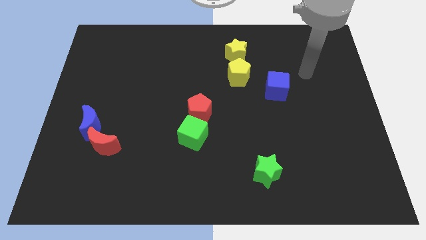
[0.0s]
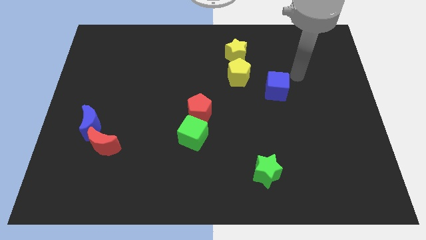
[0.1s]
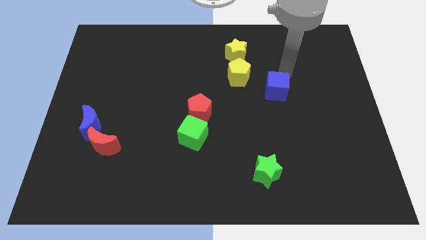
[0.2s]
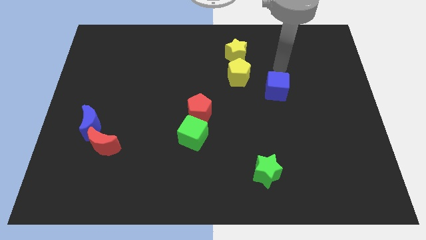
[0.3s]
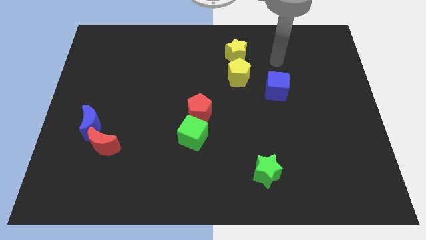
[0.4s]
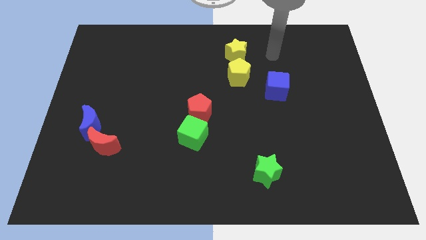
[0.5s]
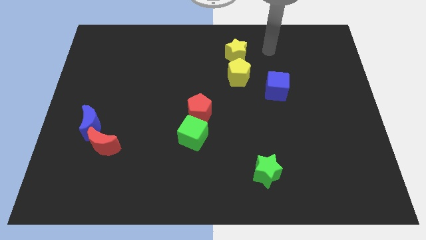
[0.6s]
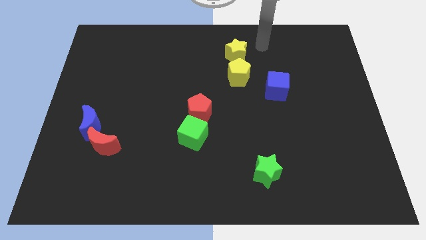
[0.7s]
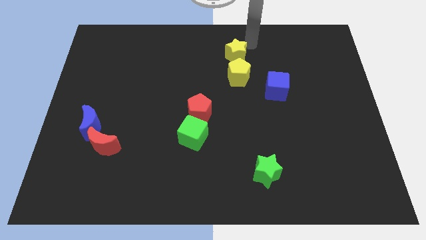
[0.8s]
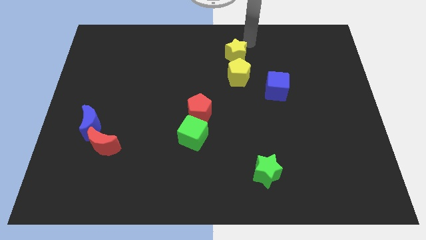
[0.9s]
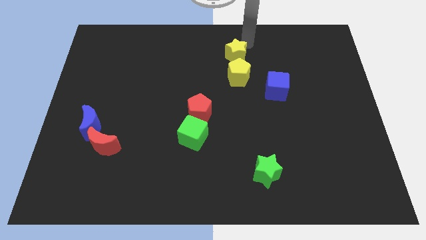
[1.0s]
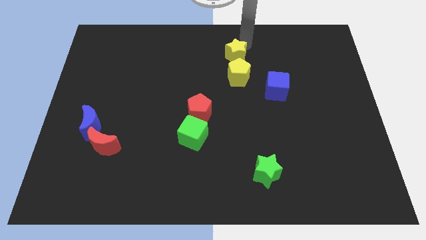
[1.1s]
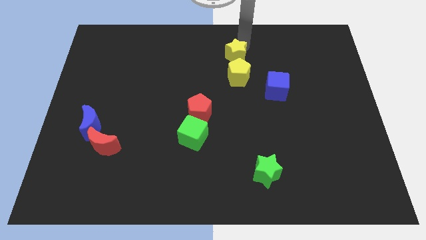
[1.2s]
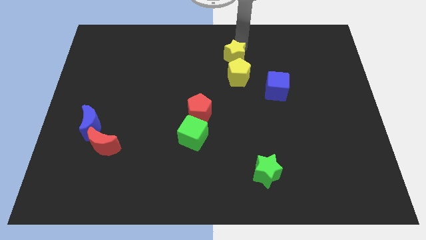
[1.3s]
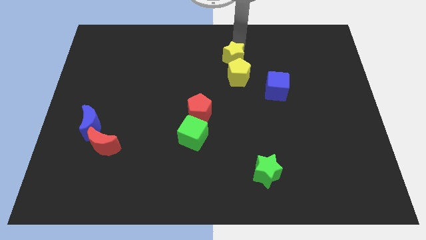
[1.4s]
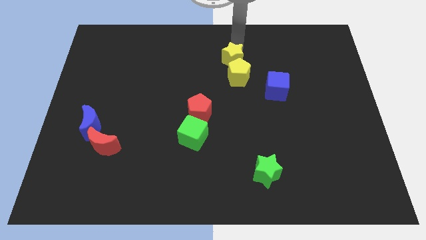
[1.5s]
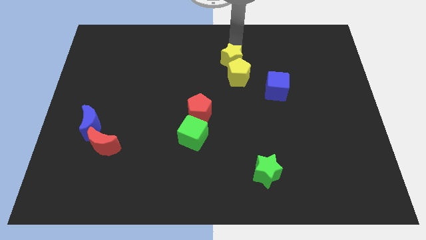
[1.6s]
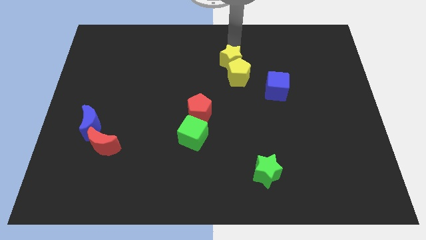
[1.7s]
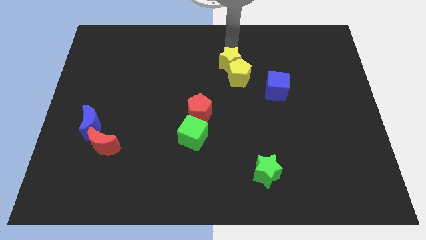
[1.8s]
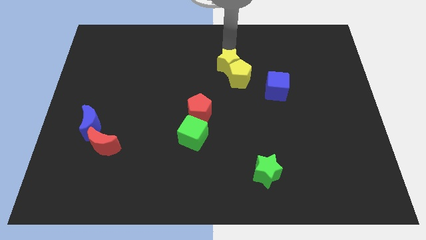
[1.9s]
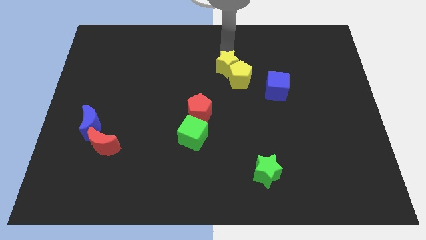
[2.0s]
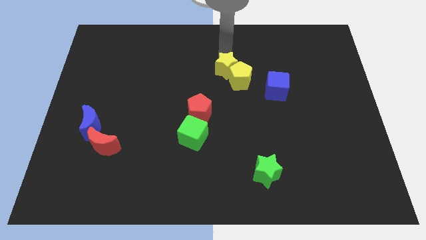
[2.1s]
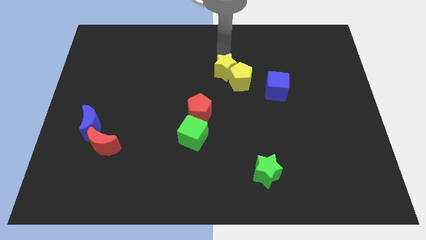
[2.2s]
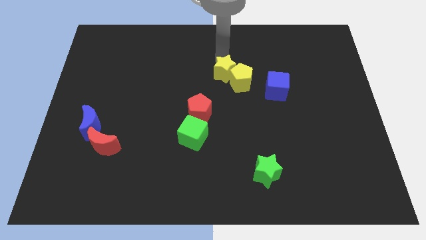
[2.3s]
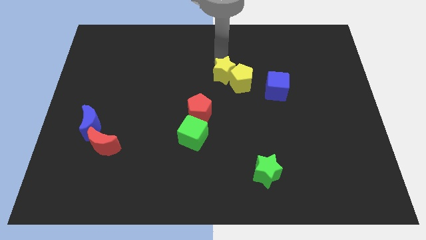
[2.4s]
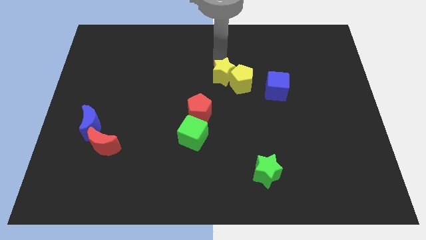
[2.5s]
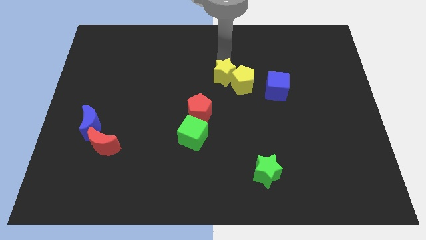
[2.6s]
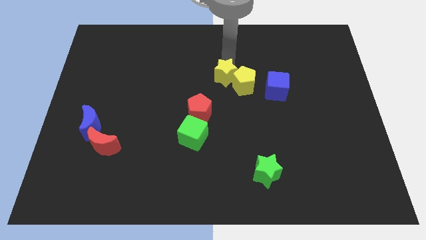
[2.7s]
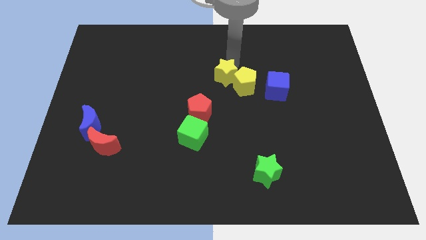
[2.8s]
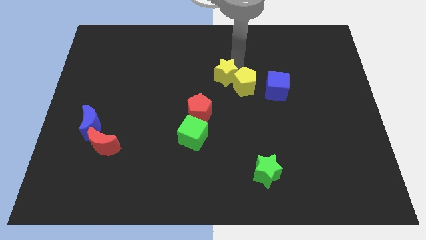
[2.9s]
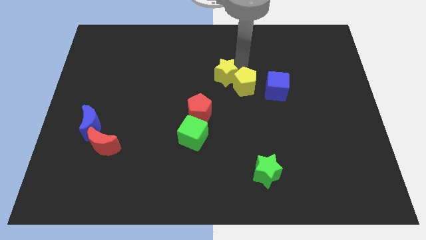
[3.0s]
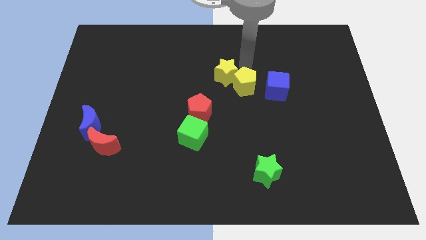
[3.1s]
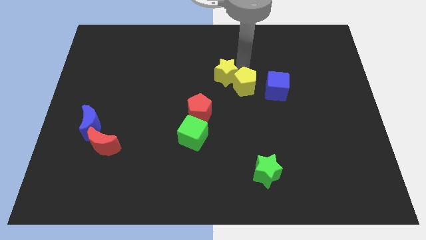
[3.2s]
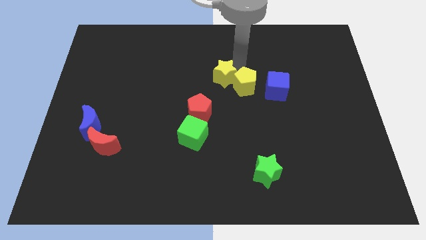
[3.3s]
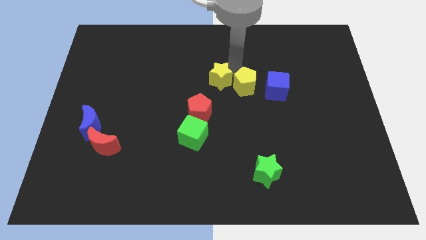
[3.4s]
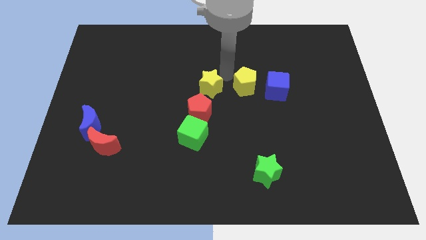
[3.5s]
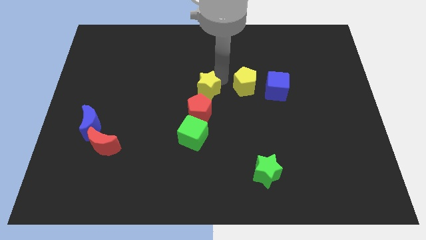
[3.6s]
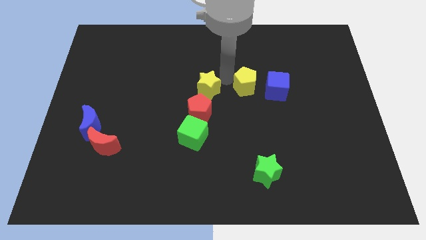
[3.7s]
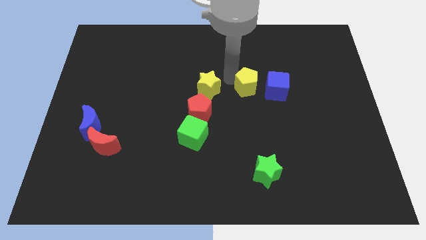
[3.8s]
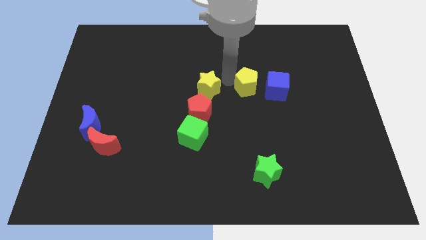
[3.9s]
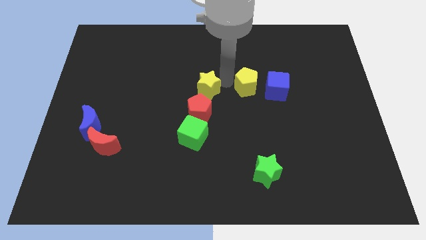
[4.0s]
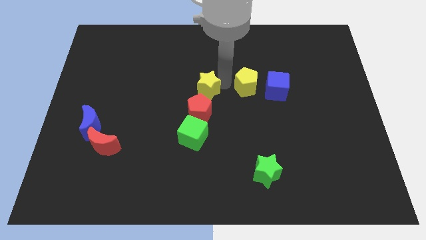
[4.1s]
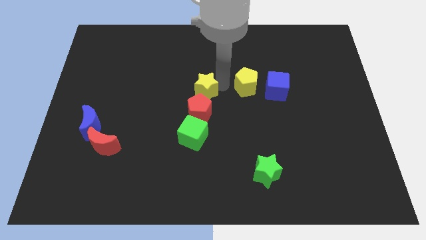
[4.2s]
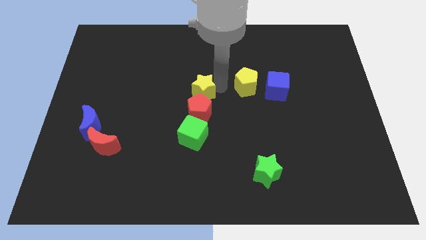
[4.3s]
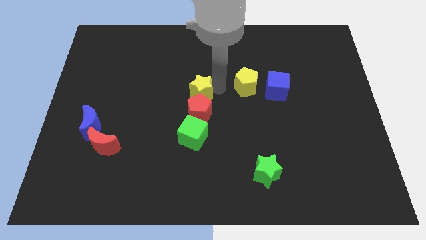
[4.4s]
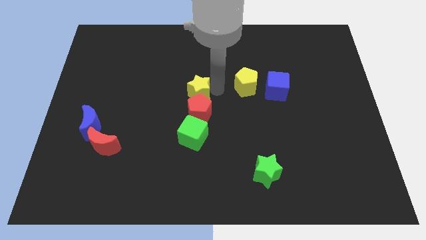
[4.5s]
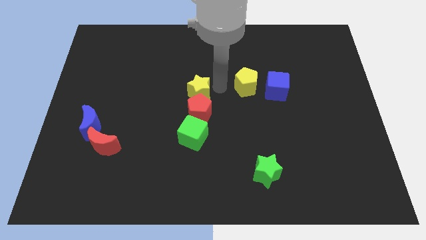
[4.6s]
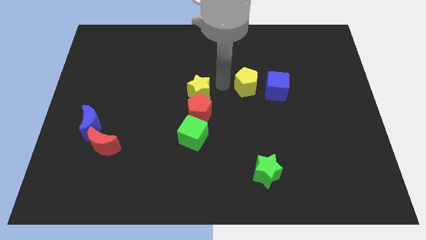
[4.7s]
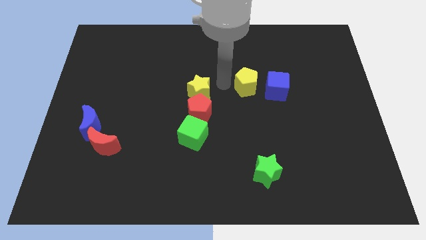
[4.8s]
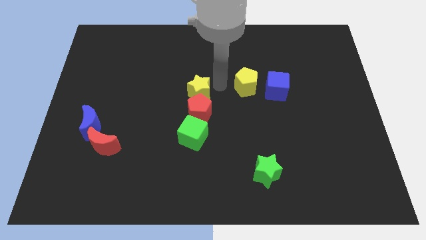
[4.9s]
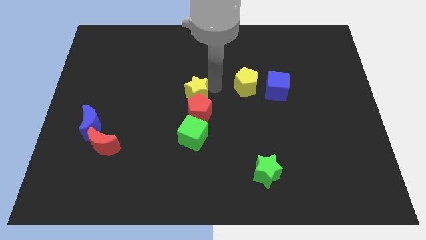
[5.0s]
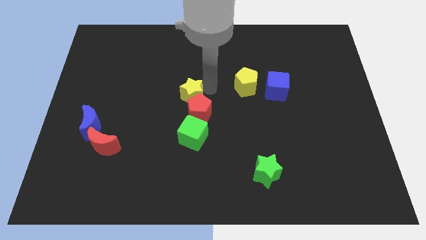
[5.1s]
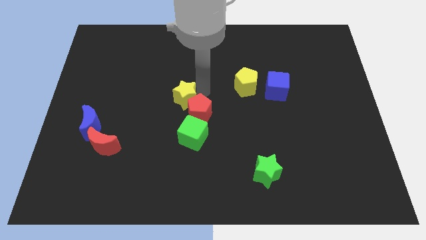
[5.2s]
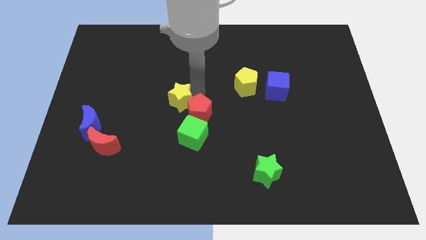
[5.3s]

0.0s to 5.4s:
push the yellow star downwards and to the left diagonally

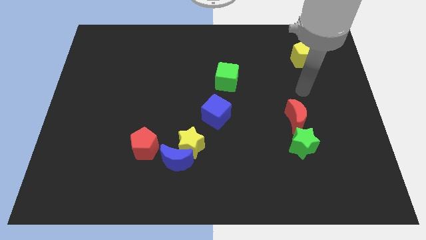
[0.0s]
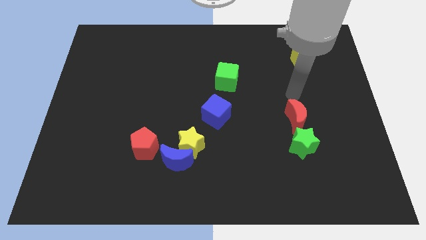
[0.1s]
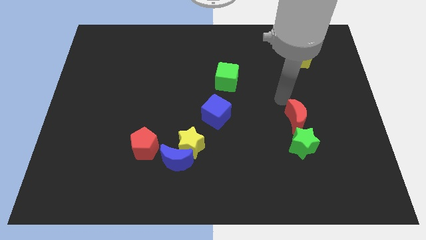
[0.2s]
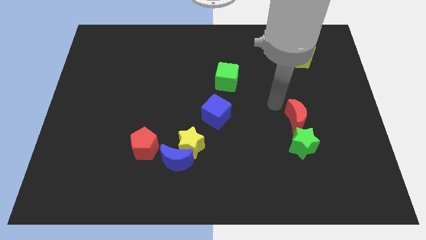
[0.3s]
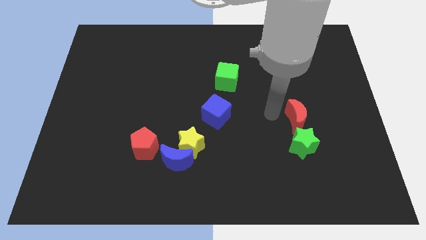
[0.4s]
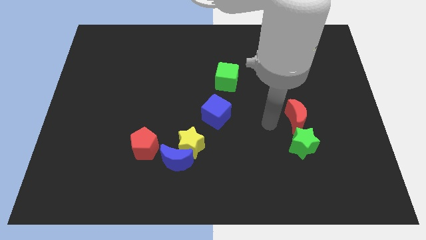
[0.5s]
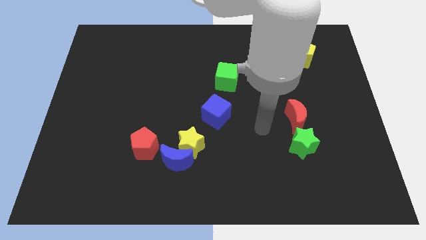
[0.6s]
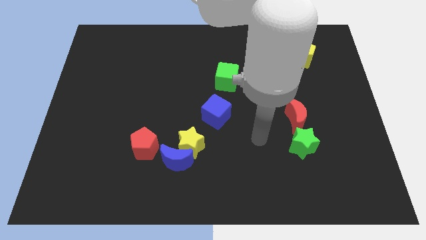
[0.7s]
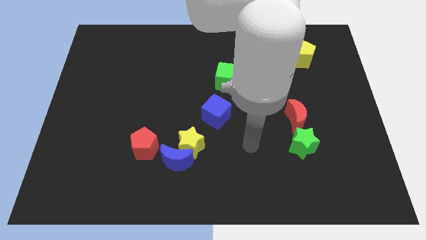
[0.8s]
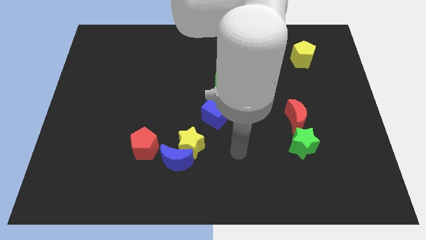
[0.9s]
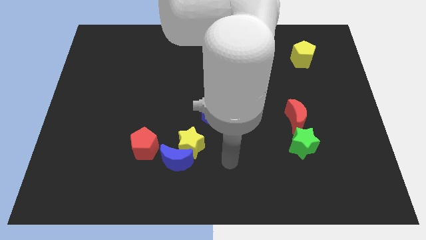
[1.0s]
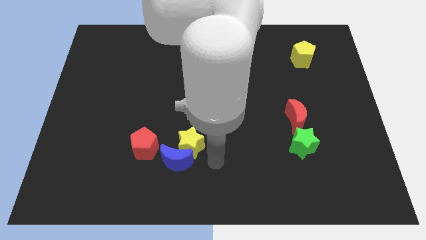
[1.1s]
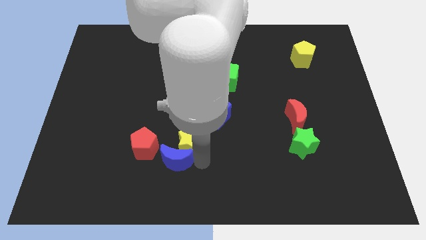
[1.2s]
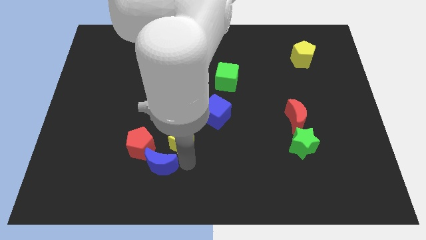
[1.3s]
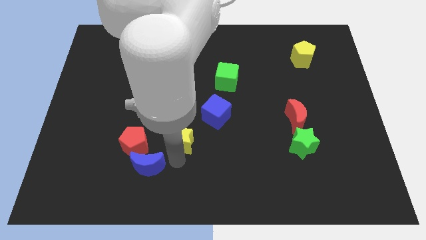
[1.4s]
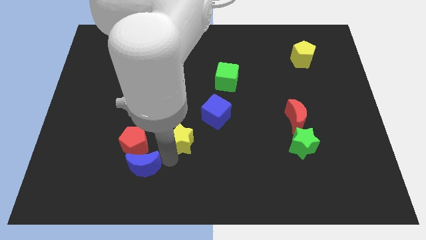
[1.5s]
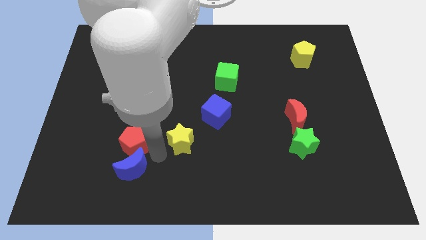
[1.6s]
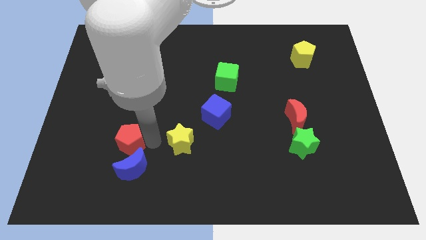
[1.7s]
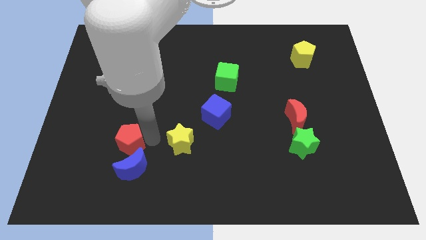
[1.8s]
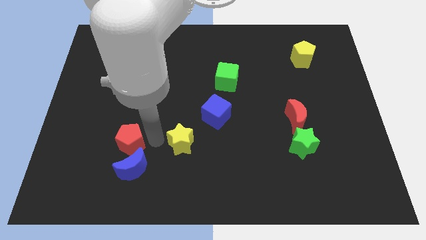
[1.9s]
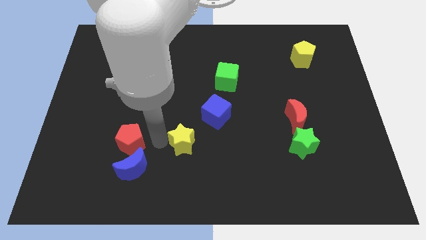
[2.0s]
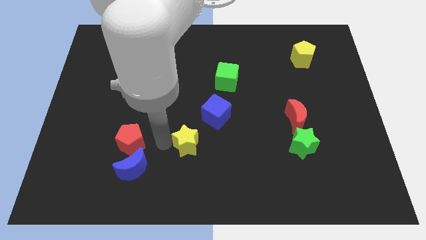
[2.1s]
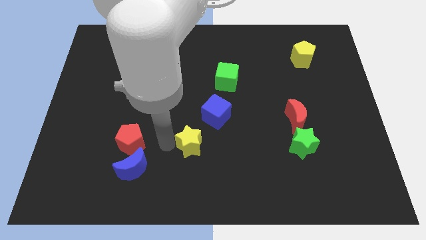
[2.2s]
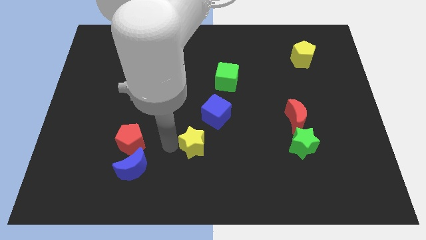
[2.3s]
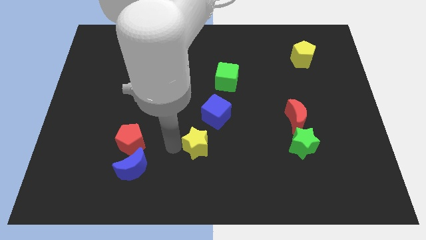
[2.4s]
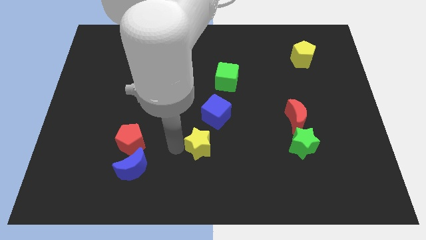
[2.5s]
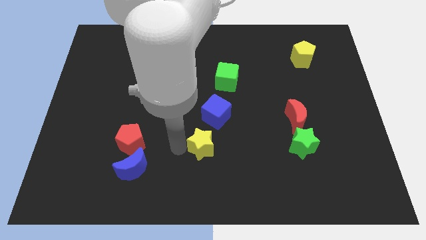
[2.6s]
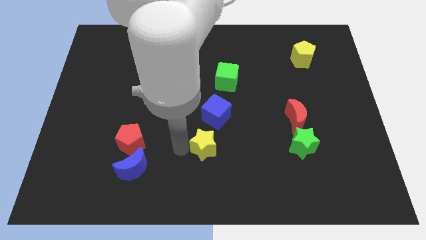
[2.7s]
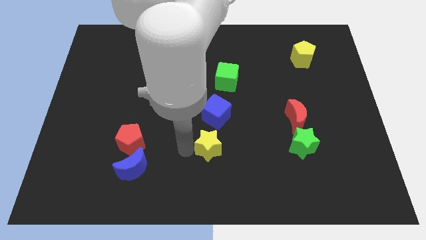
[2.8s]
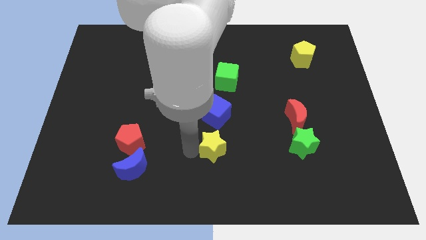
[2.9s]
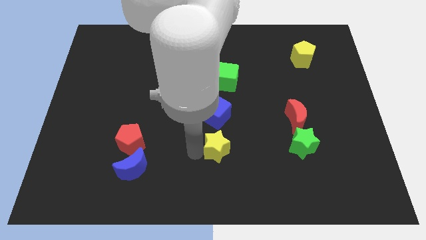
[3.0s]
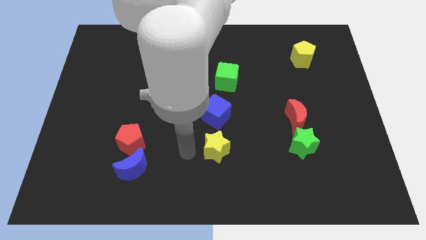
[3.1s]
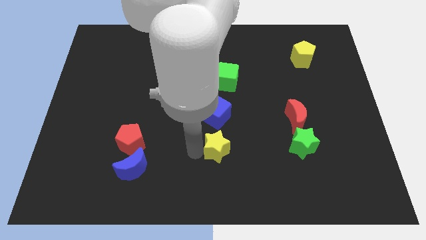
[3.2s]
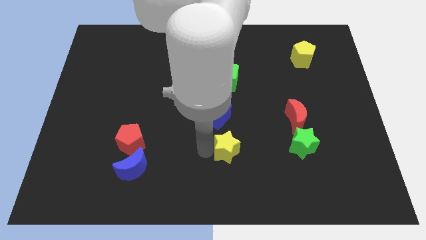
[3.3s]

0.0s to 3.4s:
slide the yellow star a bit right
